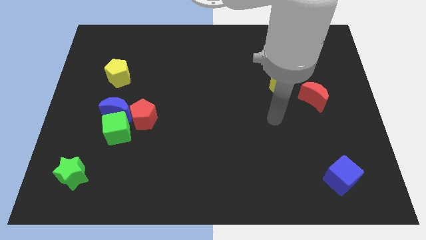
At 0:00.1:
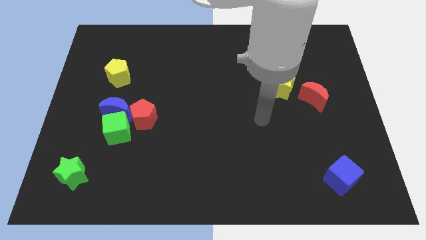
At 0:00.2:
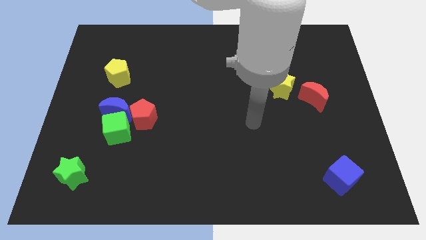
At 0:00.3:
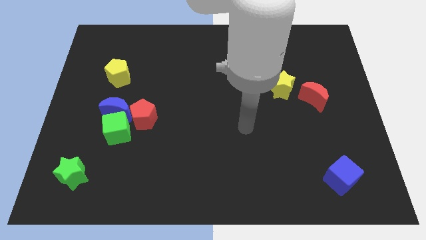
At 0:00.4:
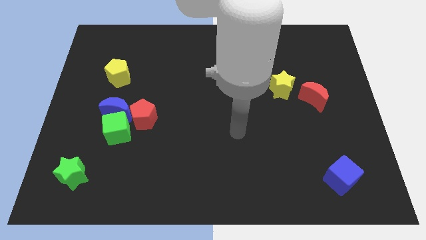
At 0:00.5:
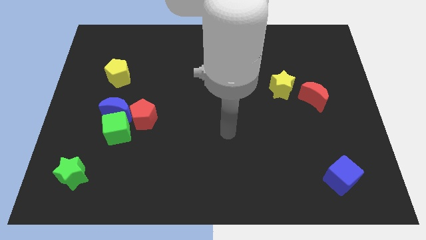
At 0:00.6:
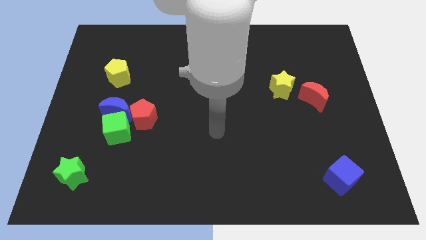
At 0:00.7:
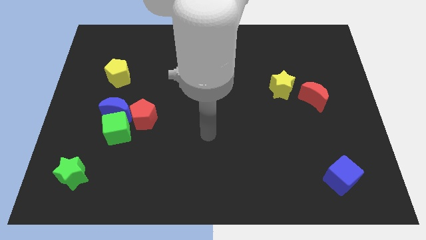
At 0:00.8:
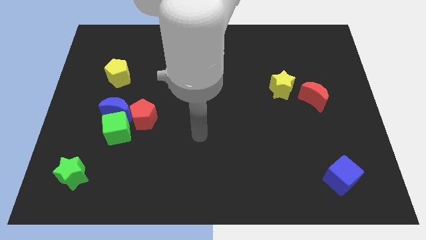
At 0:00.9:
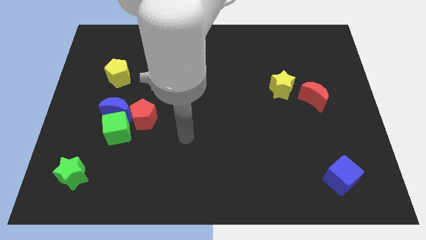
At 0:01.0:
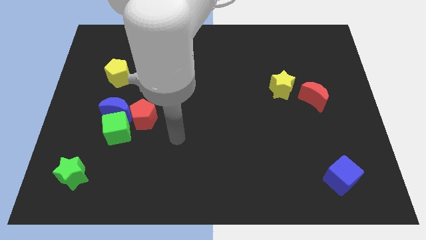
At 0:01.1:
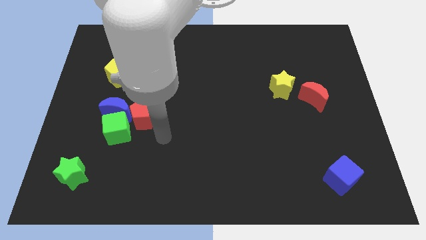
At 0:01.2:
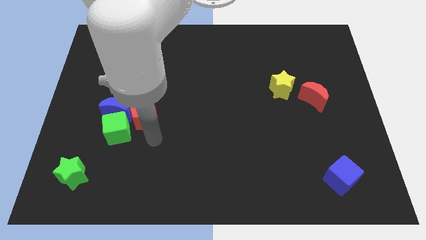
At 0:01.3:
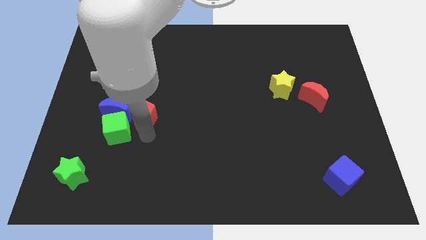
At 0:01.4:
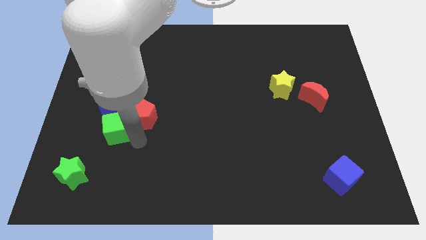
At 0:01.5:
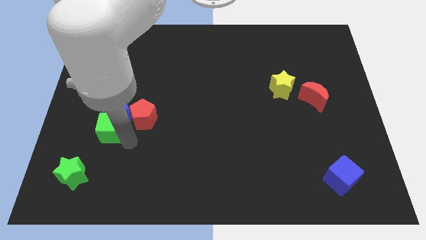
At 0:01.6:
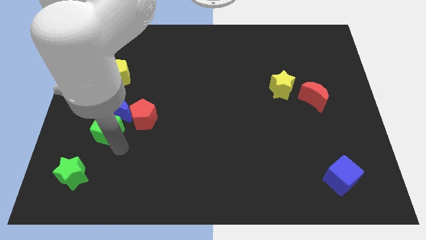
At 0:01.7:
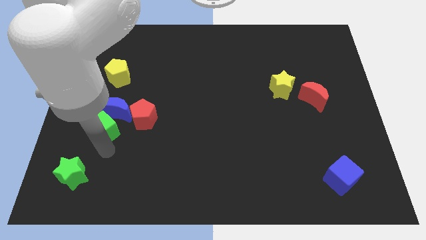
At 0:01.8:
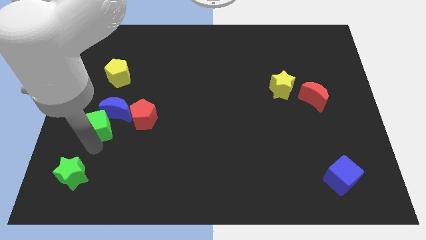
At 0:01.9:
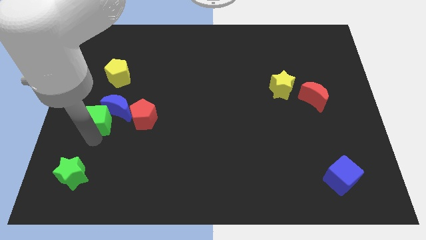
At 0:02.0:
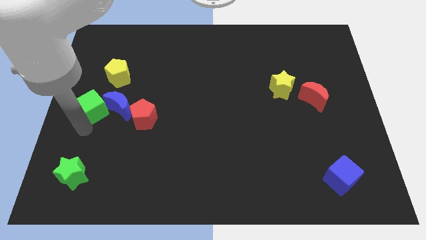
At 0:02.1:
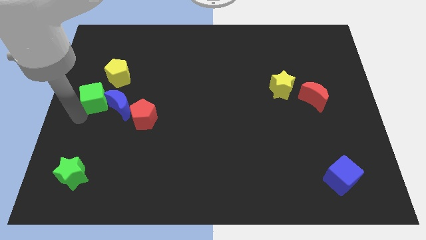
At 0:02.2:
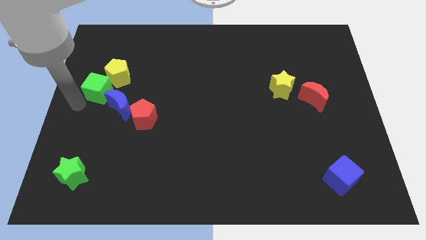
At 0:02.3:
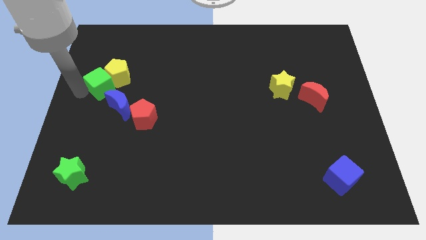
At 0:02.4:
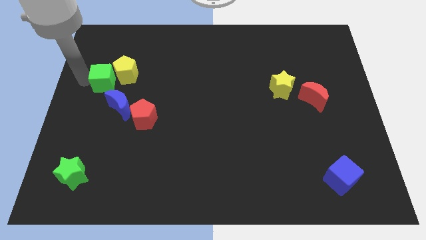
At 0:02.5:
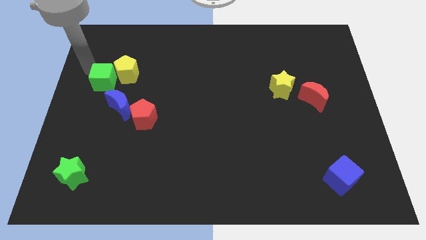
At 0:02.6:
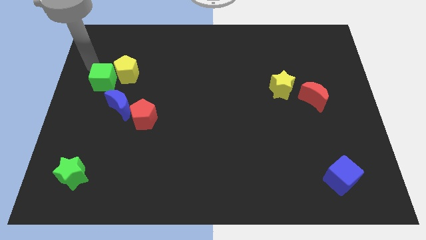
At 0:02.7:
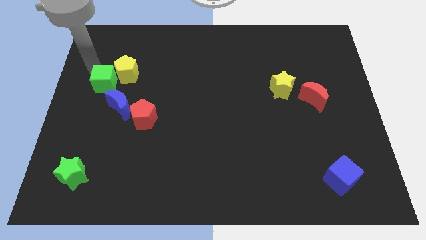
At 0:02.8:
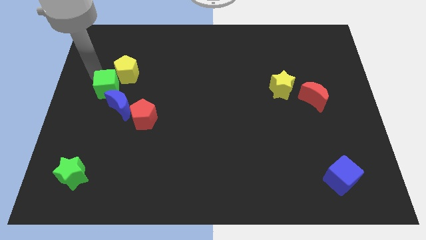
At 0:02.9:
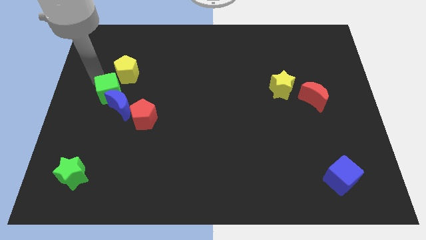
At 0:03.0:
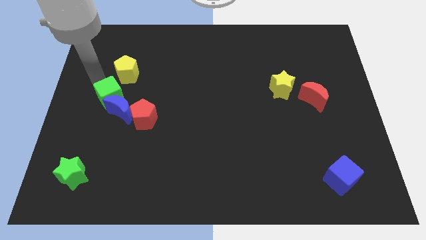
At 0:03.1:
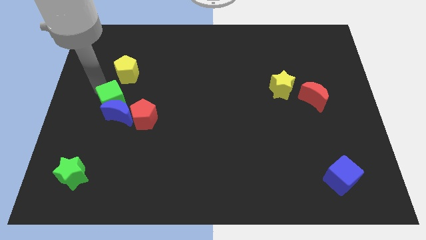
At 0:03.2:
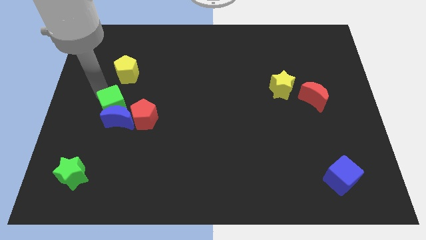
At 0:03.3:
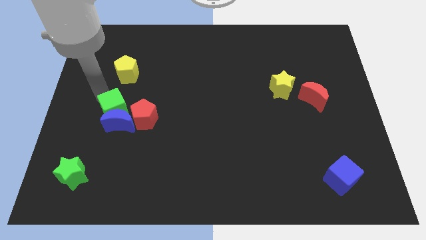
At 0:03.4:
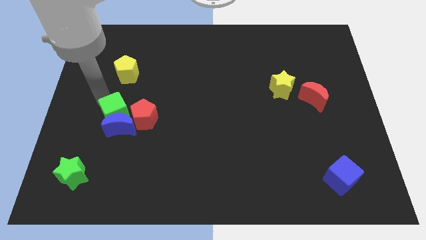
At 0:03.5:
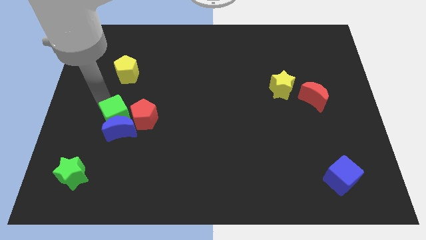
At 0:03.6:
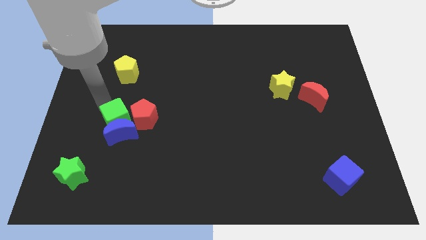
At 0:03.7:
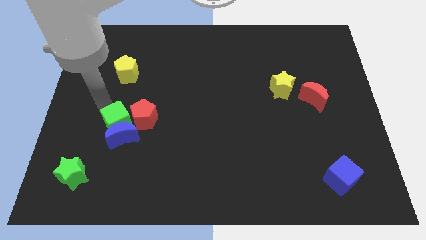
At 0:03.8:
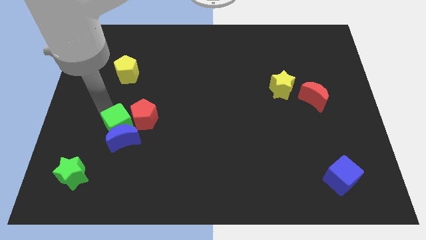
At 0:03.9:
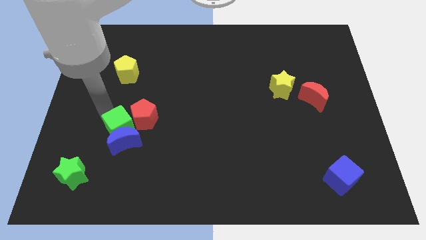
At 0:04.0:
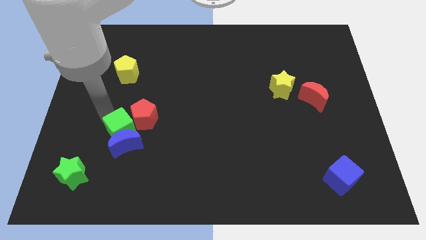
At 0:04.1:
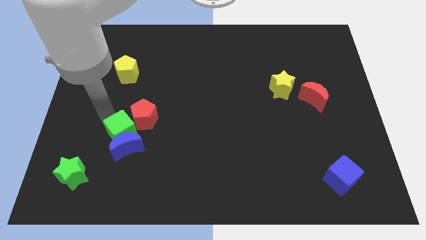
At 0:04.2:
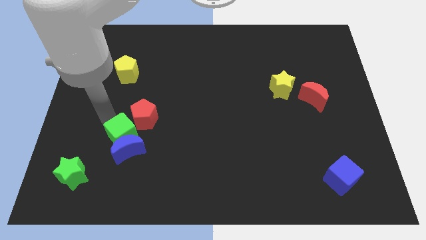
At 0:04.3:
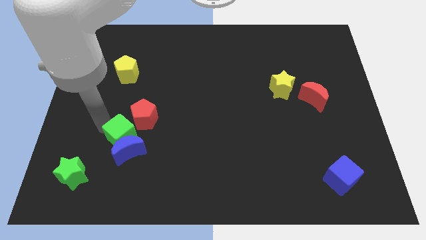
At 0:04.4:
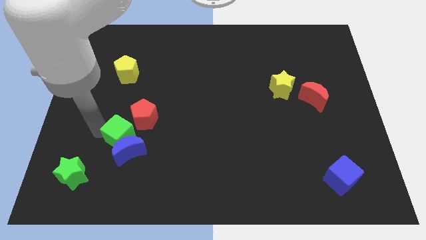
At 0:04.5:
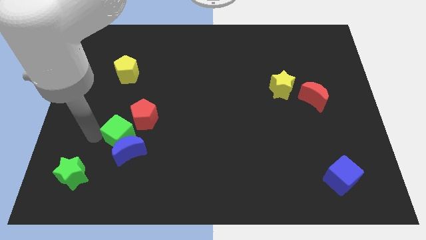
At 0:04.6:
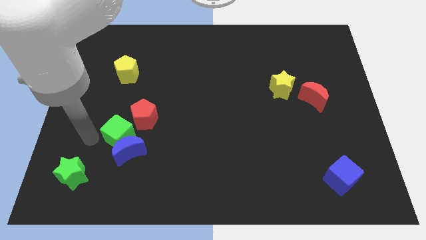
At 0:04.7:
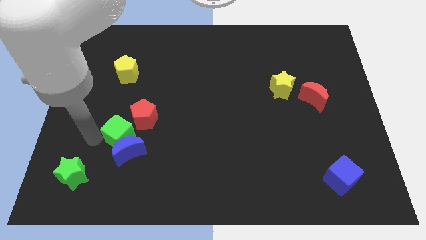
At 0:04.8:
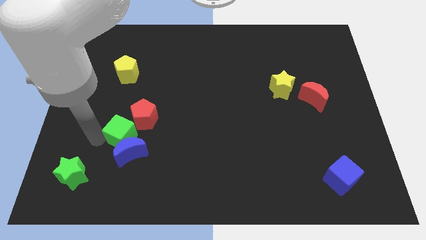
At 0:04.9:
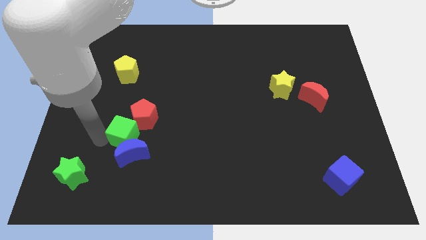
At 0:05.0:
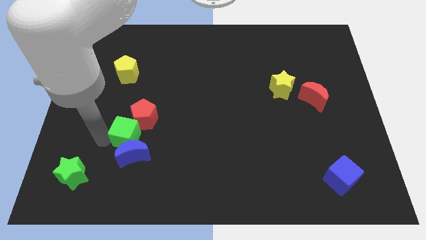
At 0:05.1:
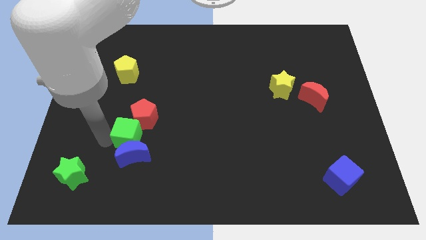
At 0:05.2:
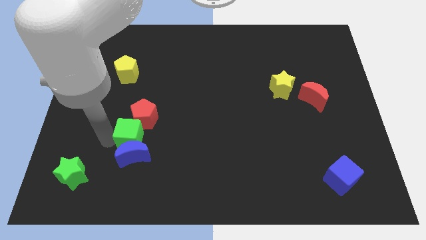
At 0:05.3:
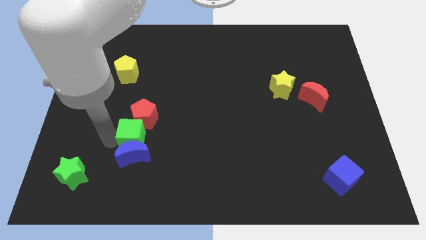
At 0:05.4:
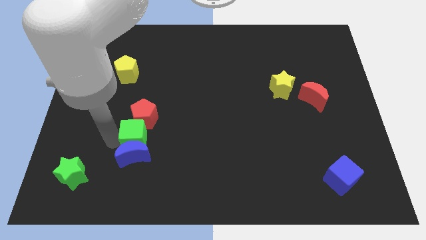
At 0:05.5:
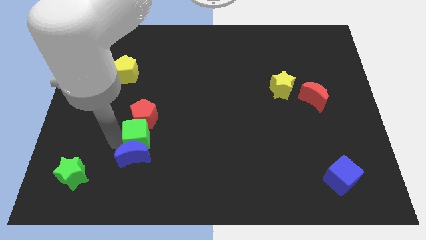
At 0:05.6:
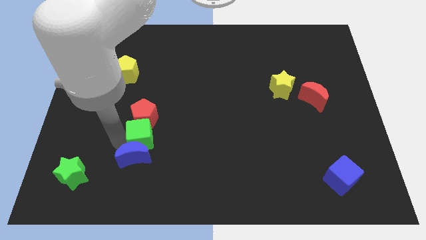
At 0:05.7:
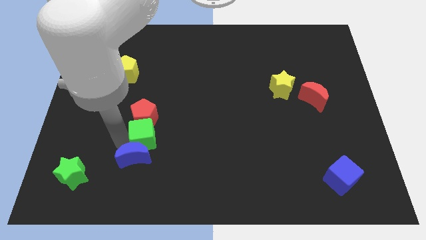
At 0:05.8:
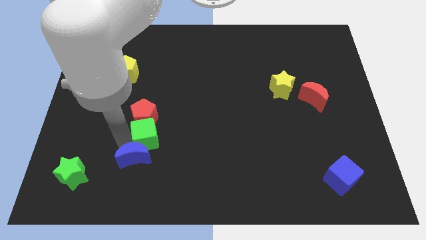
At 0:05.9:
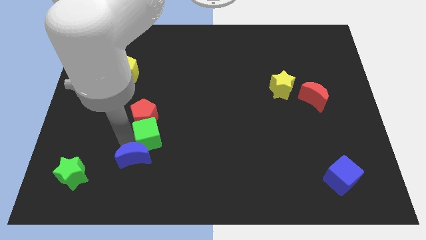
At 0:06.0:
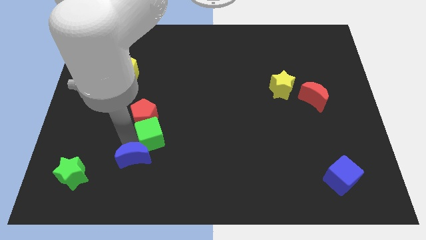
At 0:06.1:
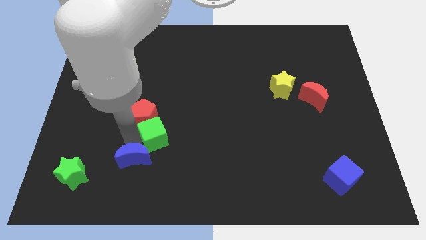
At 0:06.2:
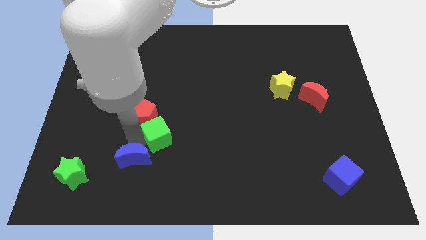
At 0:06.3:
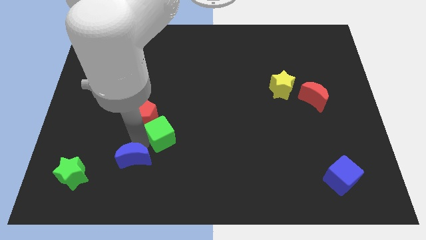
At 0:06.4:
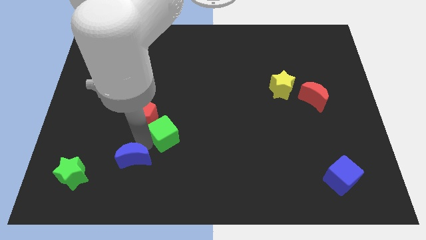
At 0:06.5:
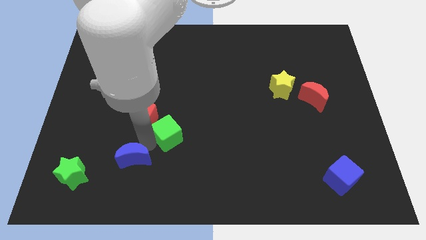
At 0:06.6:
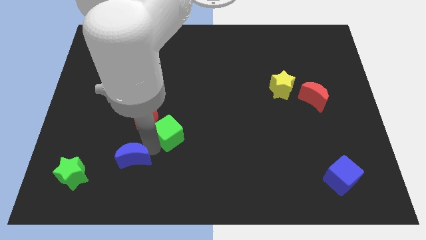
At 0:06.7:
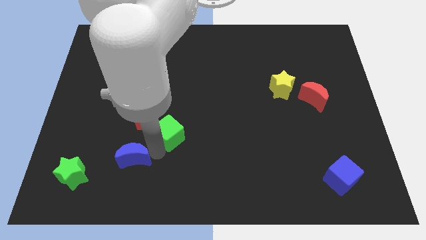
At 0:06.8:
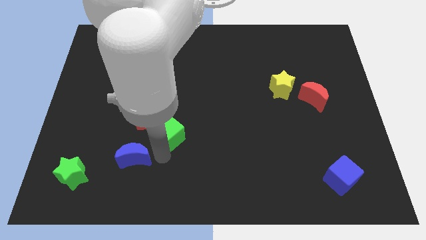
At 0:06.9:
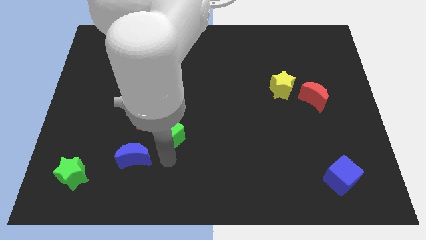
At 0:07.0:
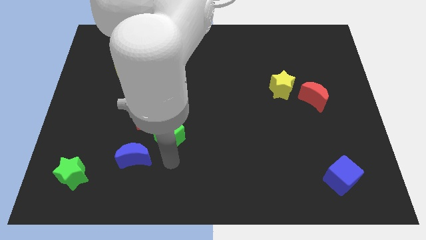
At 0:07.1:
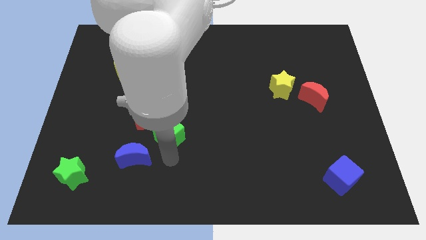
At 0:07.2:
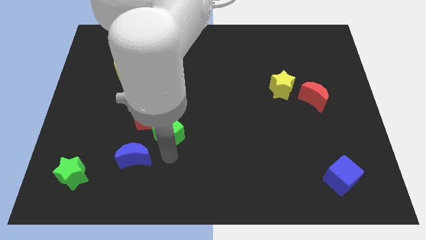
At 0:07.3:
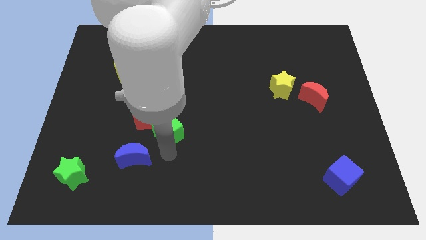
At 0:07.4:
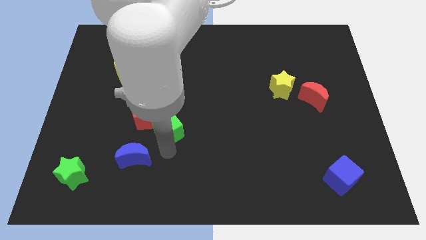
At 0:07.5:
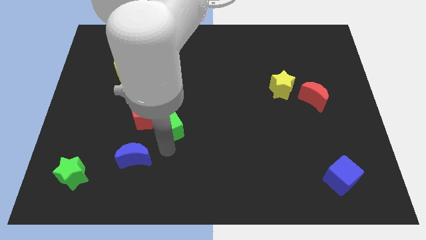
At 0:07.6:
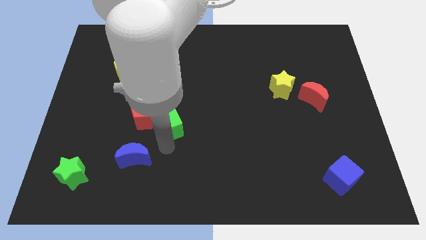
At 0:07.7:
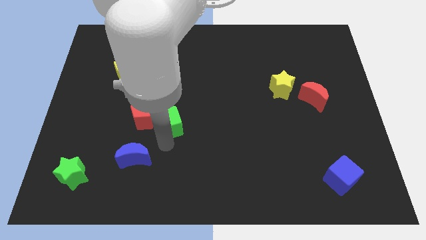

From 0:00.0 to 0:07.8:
slightly slide the green cube diagonally up and to the right
